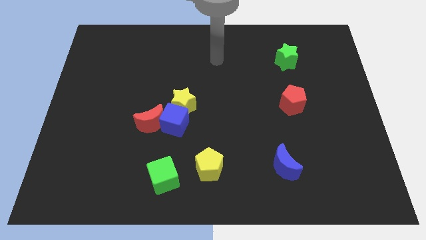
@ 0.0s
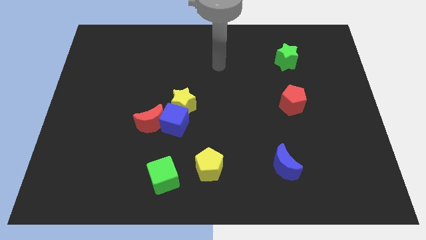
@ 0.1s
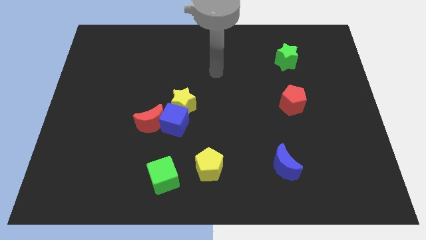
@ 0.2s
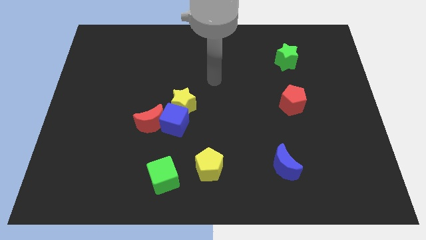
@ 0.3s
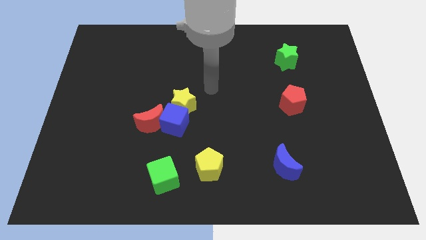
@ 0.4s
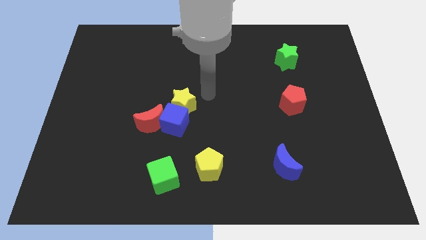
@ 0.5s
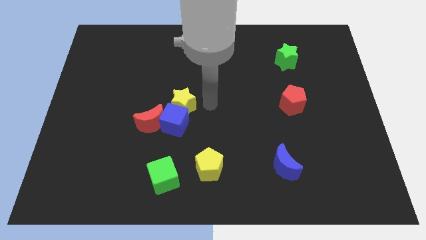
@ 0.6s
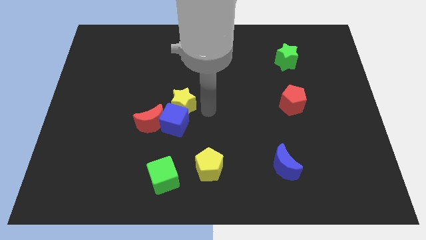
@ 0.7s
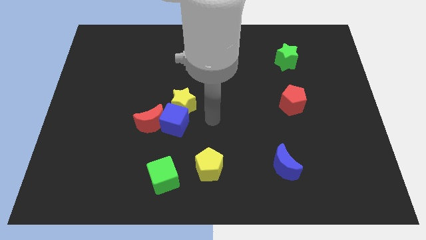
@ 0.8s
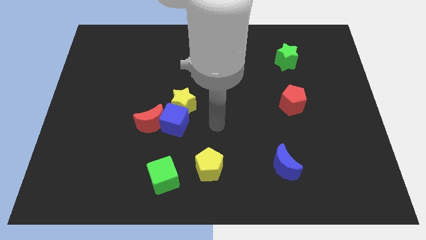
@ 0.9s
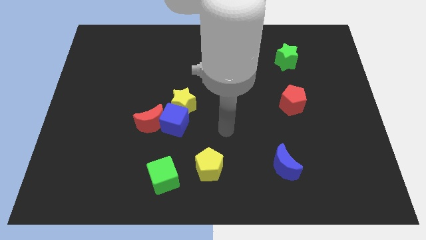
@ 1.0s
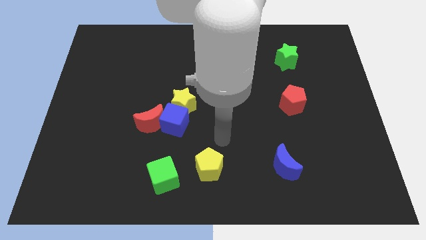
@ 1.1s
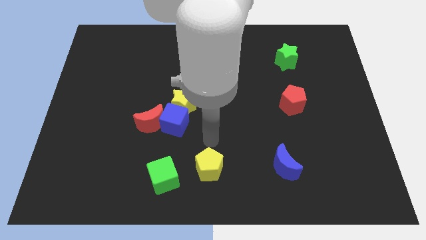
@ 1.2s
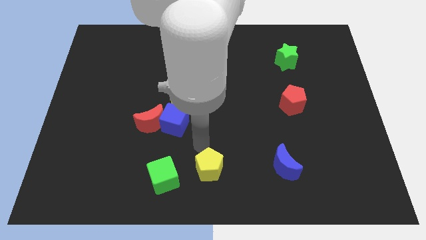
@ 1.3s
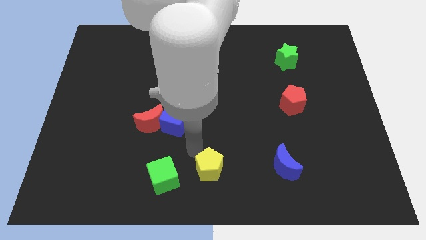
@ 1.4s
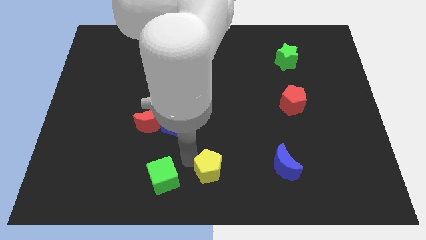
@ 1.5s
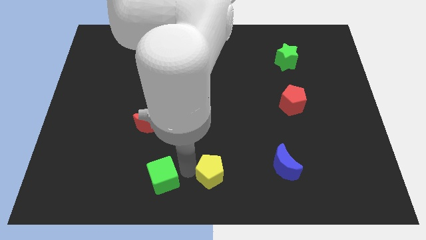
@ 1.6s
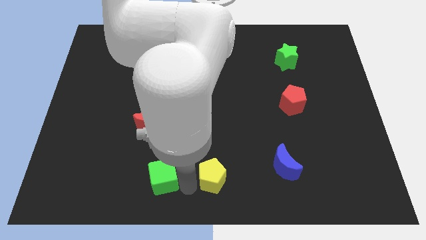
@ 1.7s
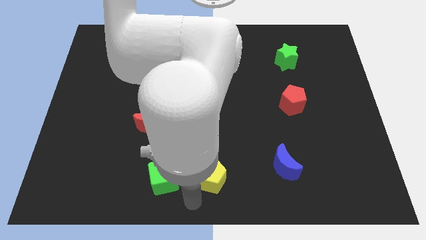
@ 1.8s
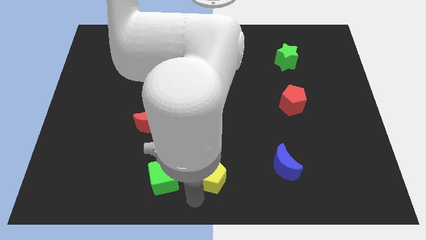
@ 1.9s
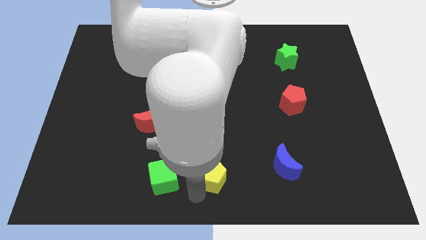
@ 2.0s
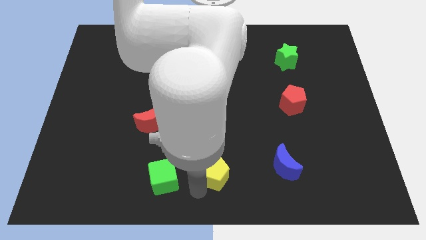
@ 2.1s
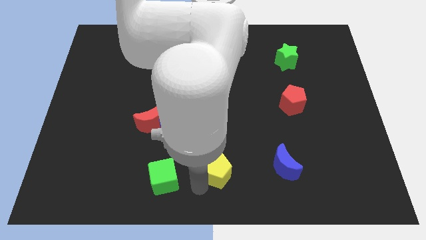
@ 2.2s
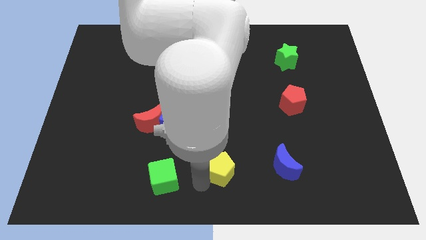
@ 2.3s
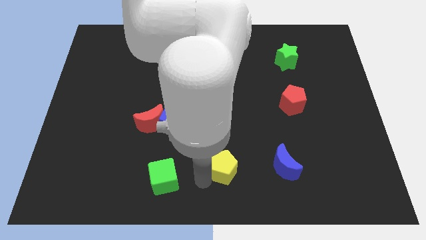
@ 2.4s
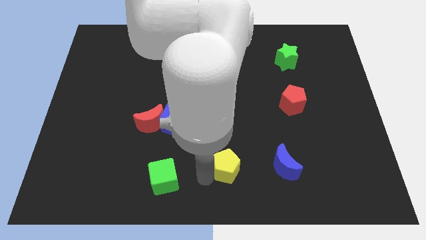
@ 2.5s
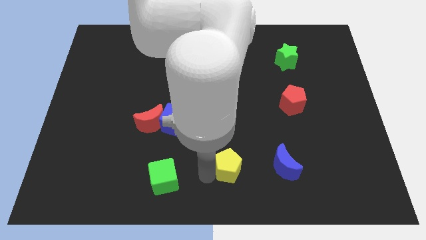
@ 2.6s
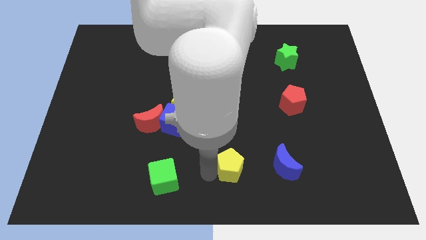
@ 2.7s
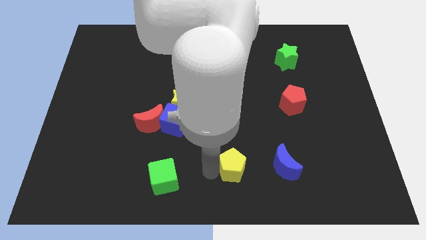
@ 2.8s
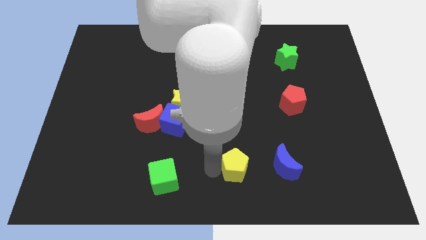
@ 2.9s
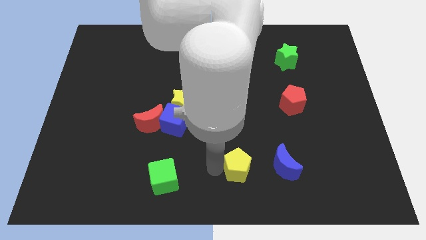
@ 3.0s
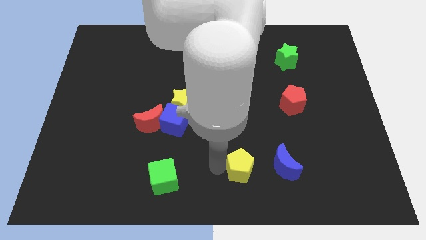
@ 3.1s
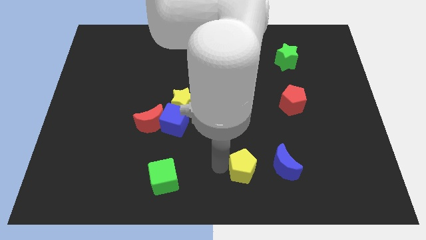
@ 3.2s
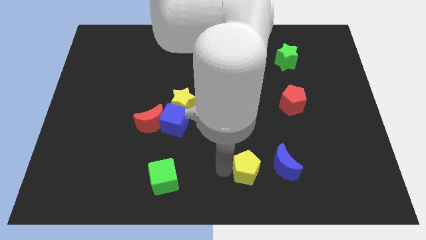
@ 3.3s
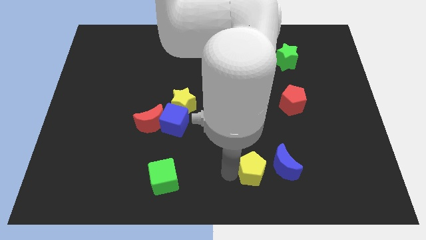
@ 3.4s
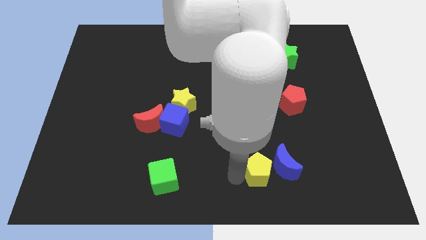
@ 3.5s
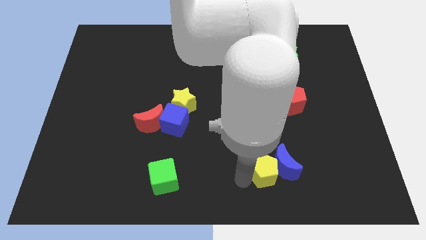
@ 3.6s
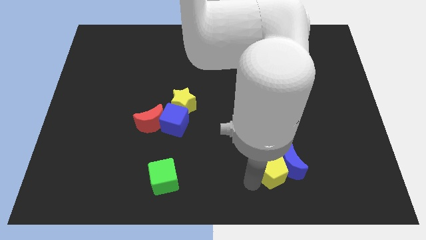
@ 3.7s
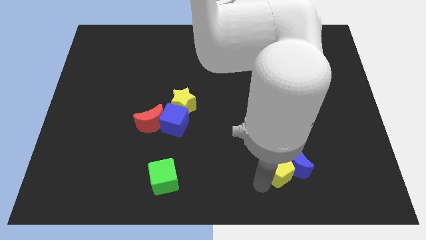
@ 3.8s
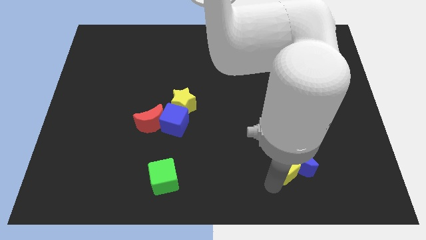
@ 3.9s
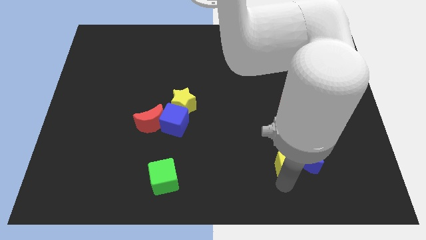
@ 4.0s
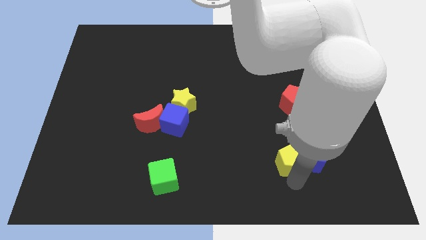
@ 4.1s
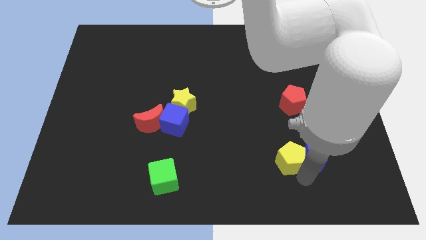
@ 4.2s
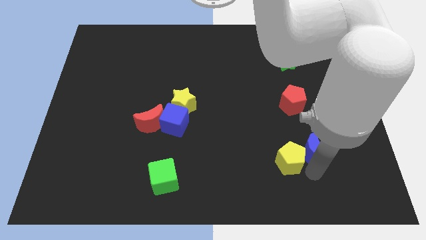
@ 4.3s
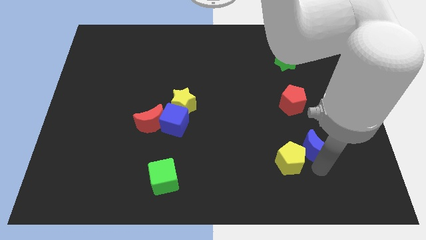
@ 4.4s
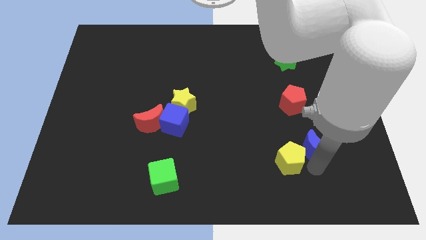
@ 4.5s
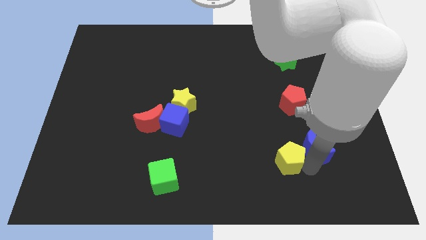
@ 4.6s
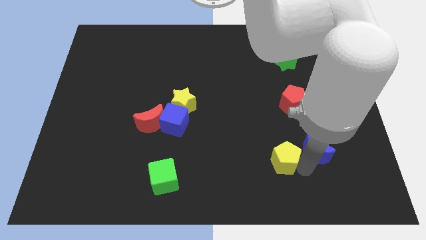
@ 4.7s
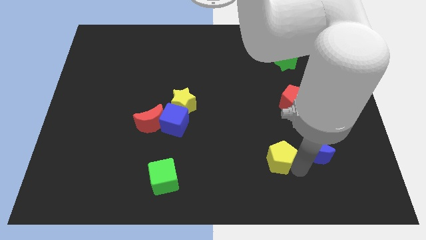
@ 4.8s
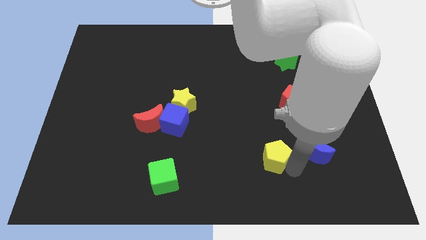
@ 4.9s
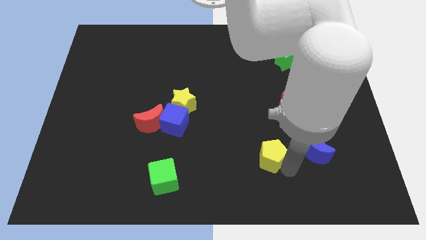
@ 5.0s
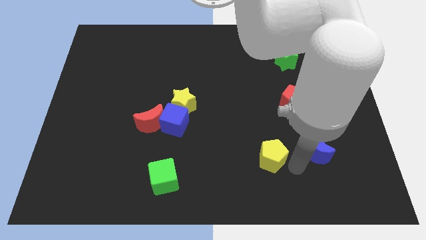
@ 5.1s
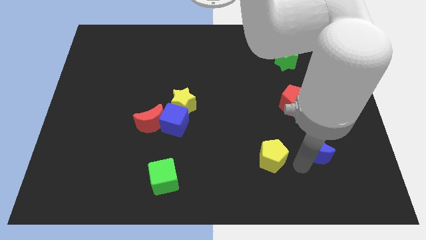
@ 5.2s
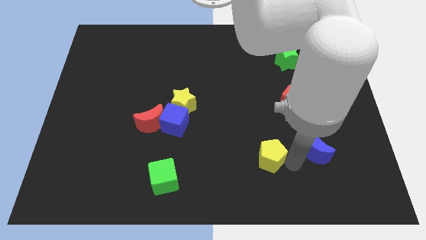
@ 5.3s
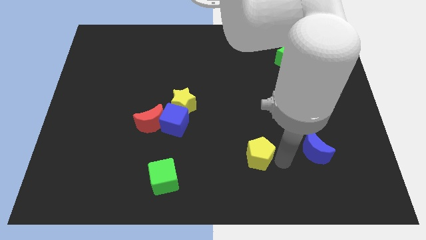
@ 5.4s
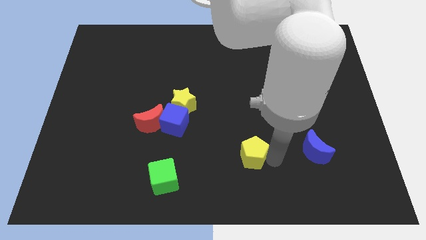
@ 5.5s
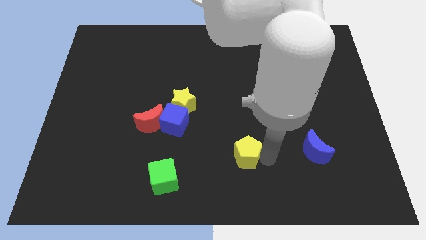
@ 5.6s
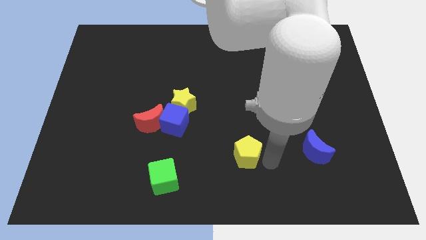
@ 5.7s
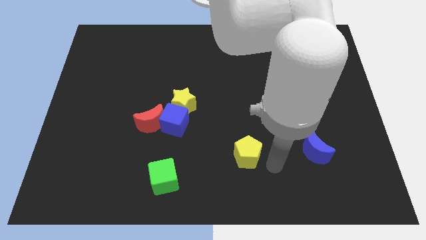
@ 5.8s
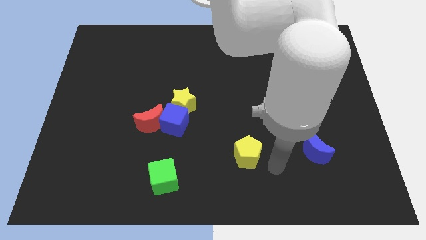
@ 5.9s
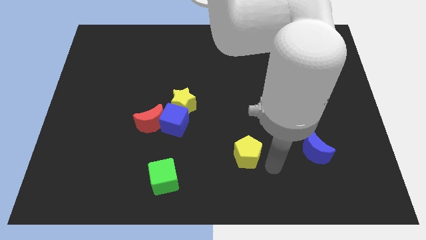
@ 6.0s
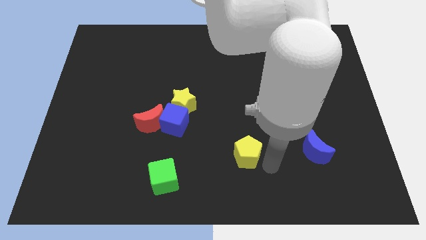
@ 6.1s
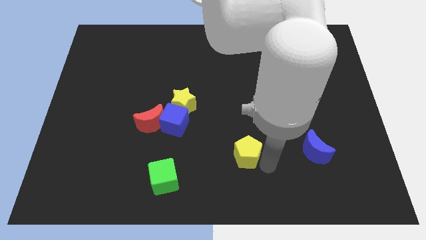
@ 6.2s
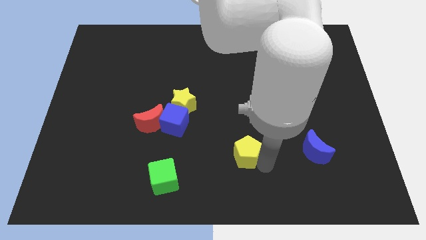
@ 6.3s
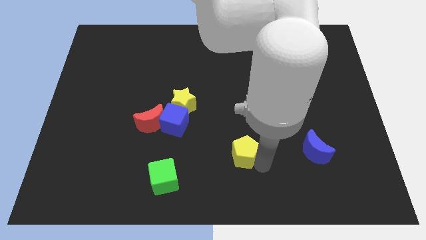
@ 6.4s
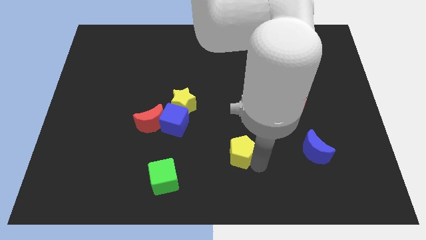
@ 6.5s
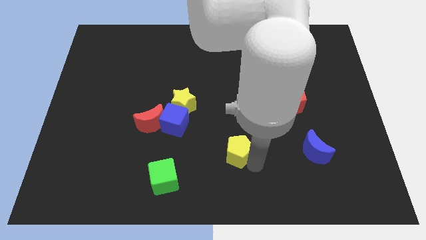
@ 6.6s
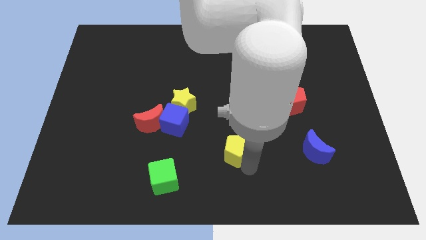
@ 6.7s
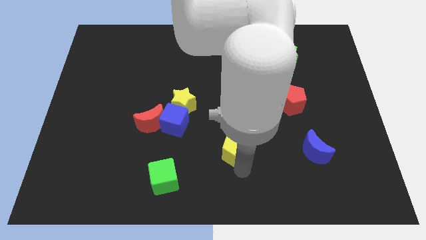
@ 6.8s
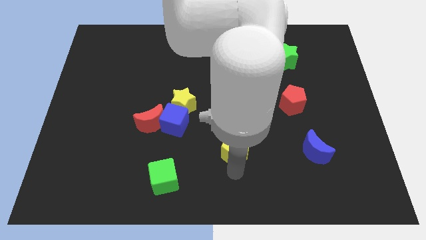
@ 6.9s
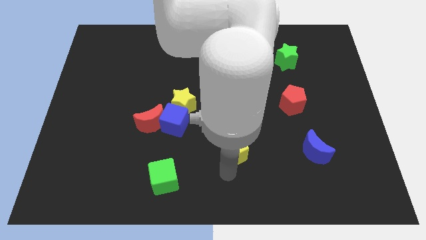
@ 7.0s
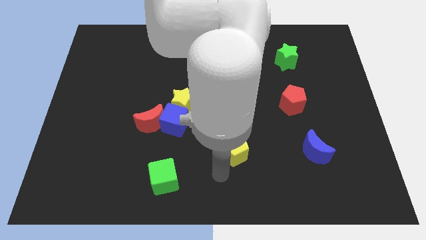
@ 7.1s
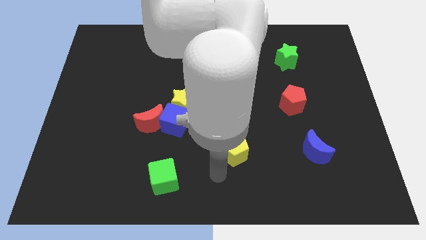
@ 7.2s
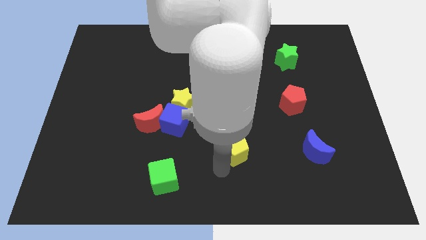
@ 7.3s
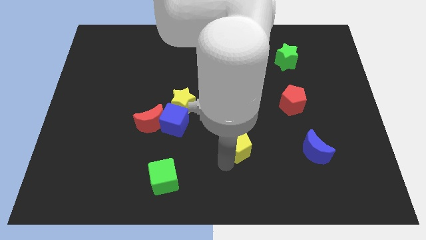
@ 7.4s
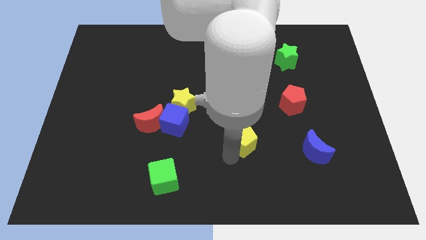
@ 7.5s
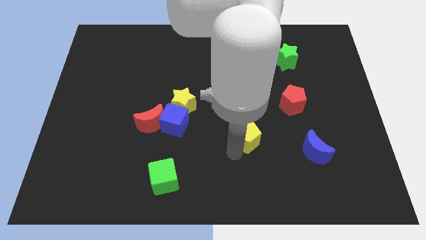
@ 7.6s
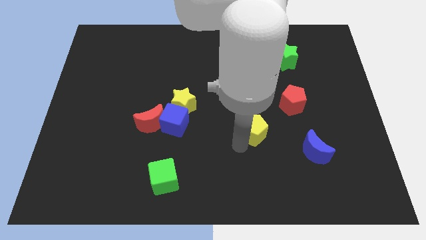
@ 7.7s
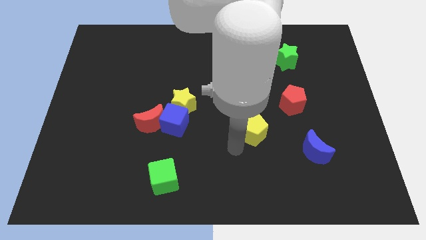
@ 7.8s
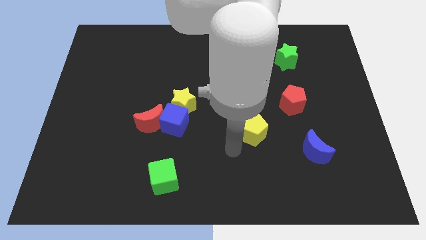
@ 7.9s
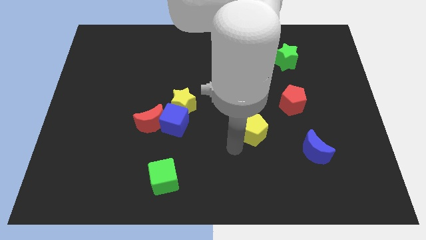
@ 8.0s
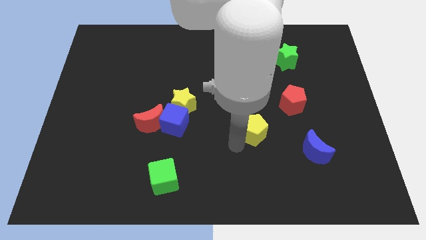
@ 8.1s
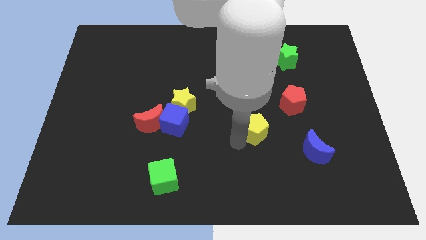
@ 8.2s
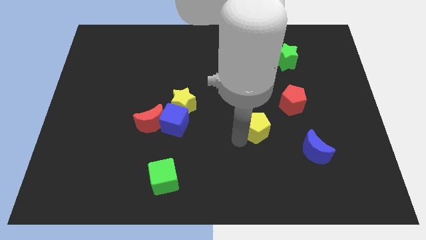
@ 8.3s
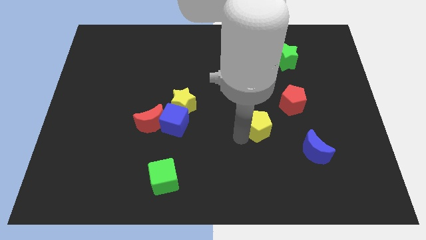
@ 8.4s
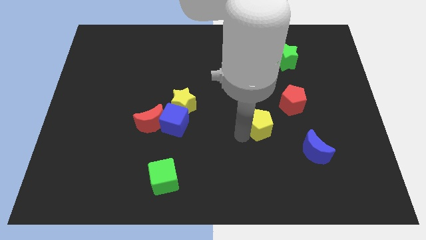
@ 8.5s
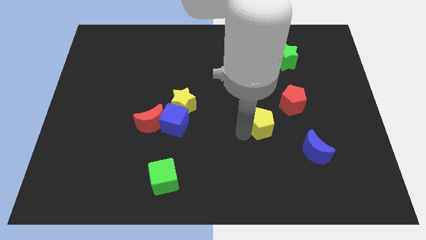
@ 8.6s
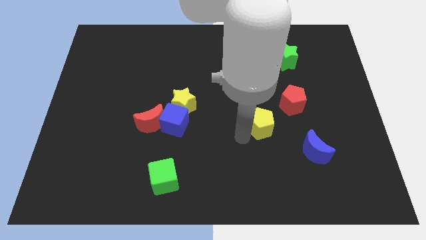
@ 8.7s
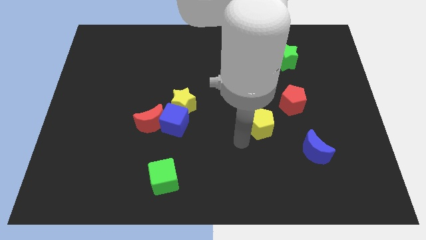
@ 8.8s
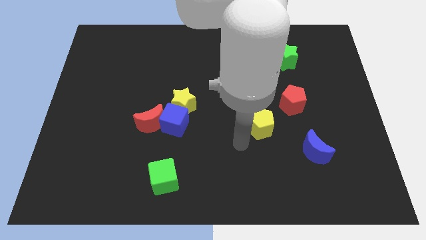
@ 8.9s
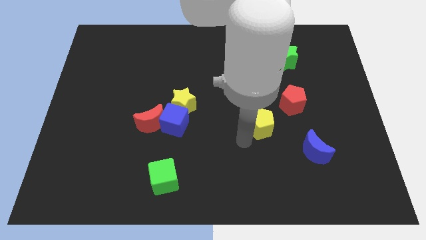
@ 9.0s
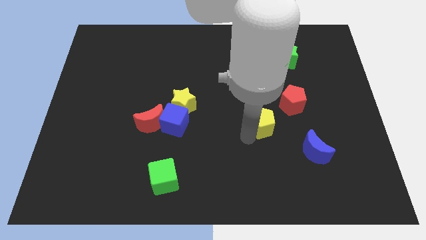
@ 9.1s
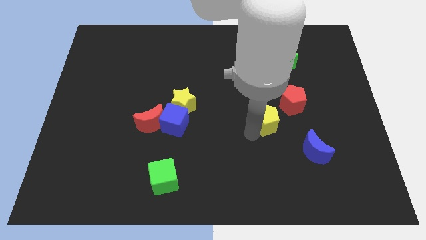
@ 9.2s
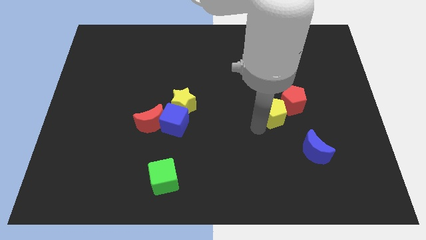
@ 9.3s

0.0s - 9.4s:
move the yellow pentagon next to the red pentagon
